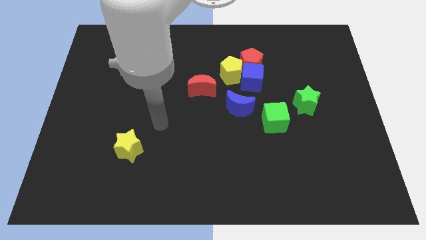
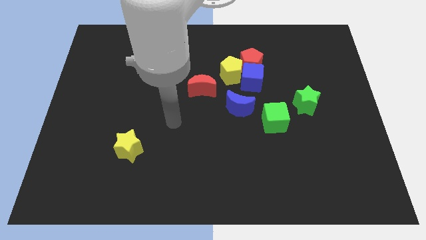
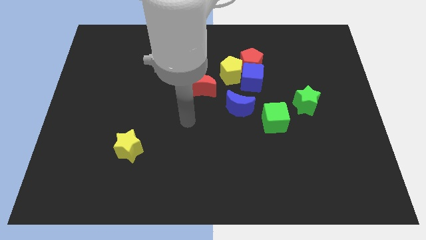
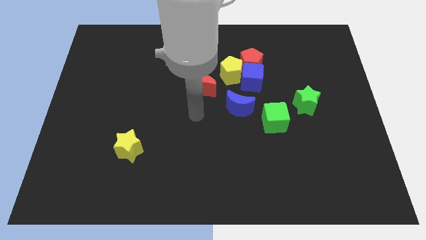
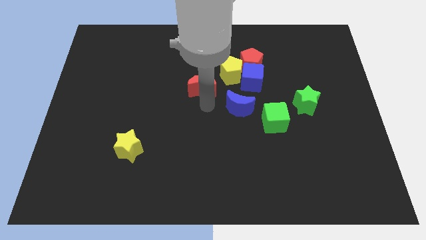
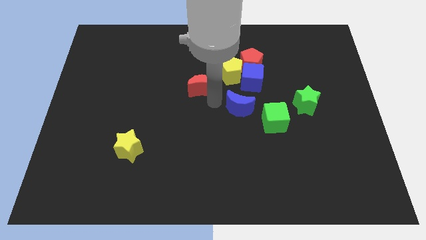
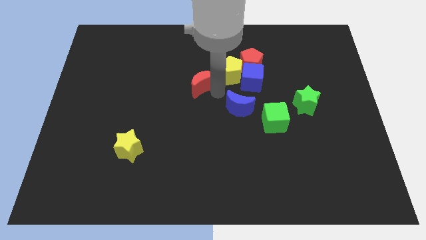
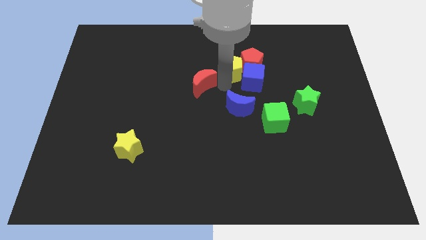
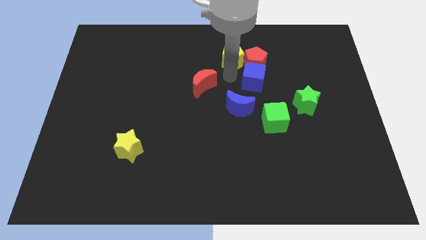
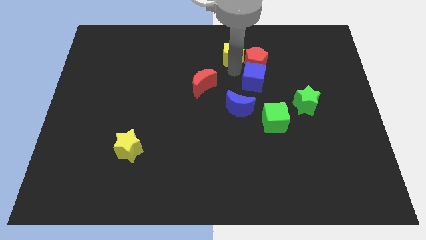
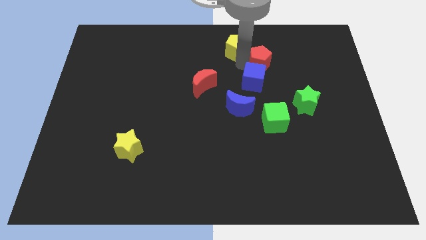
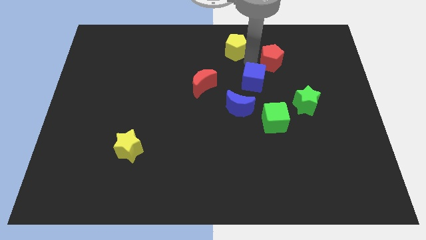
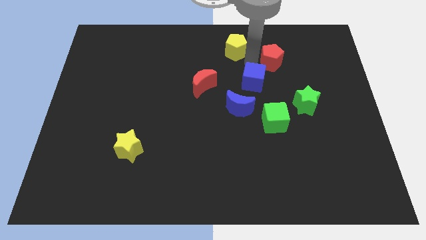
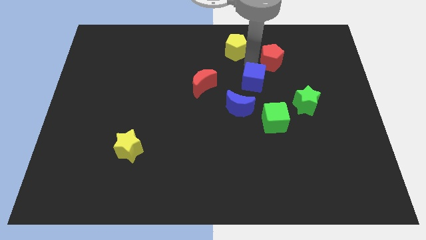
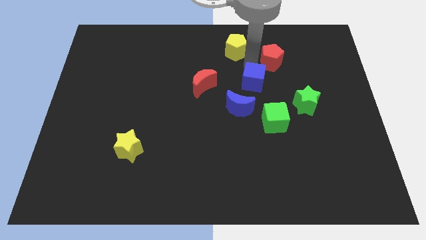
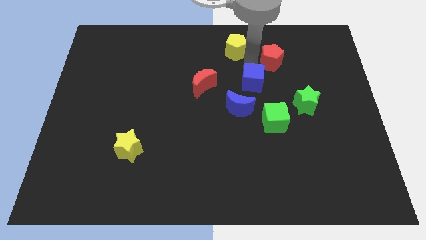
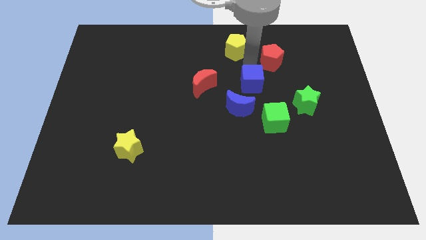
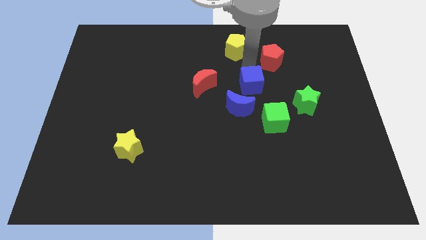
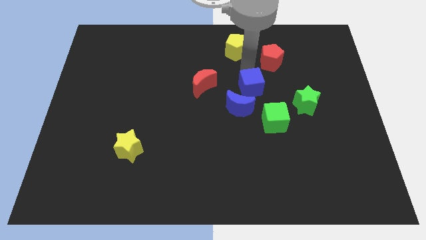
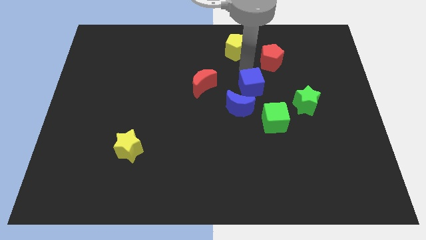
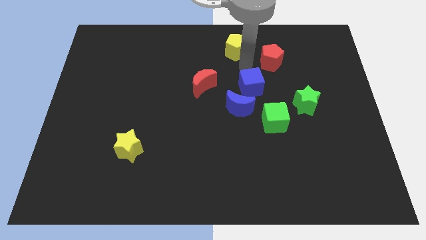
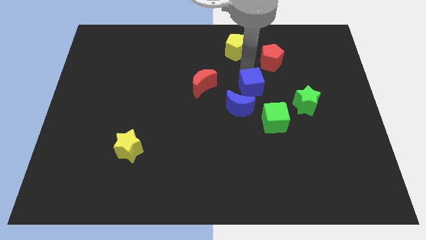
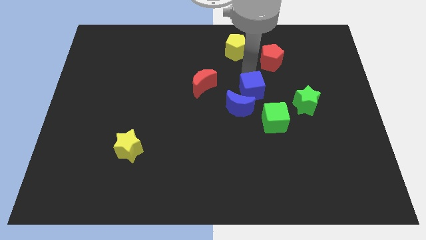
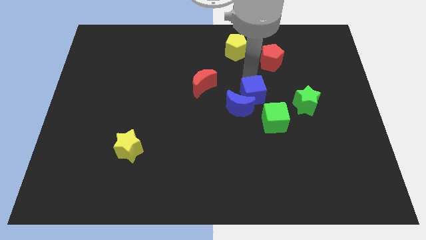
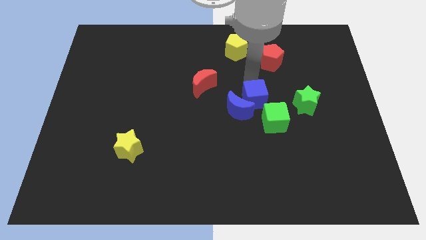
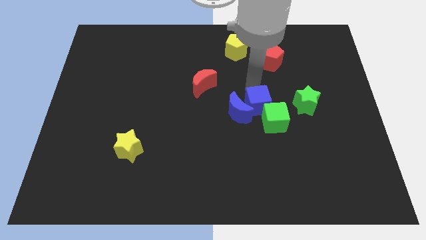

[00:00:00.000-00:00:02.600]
push the blue cube somewhat down

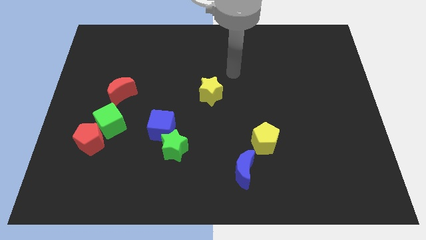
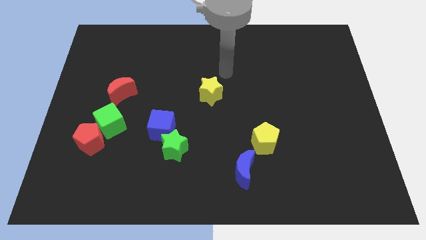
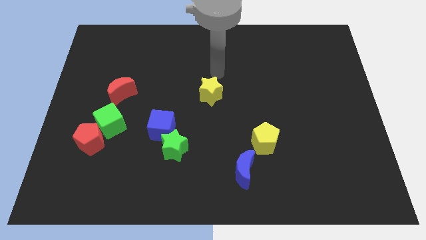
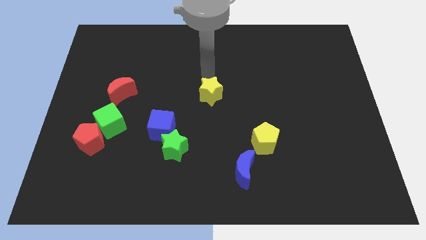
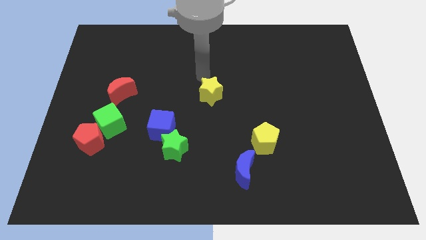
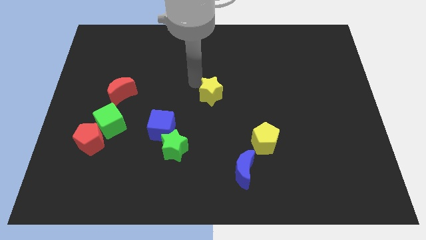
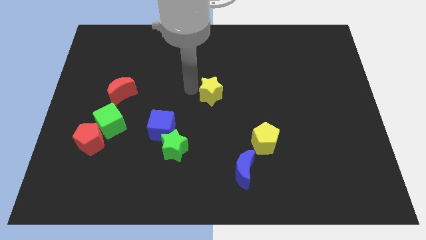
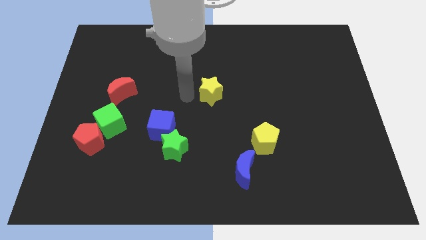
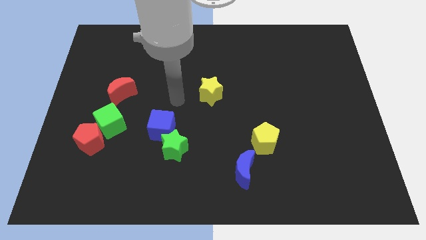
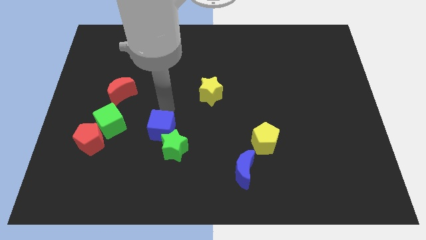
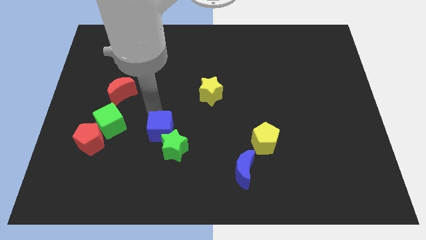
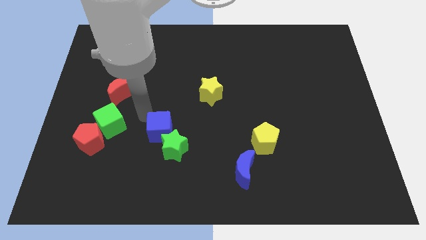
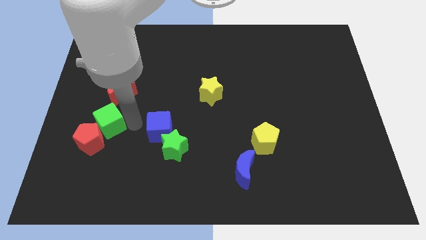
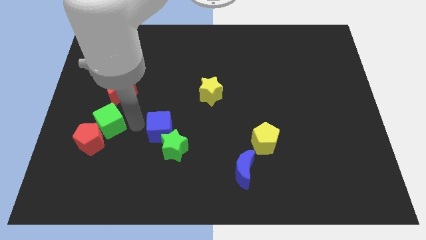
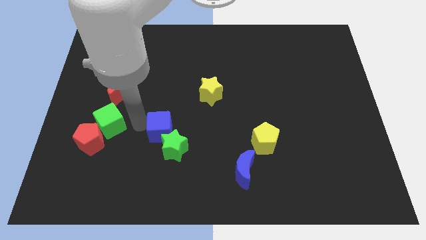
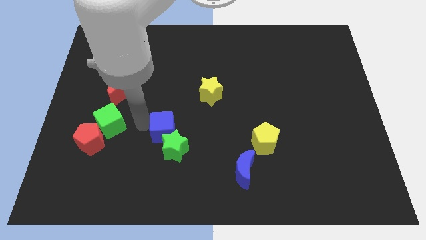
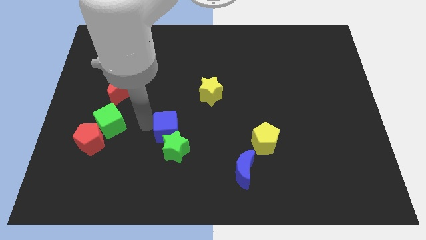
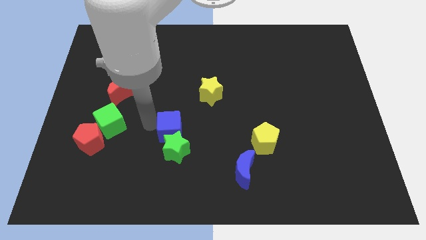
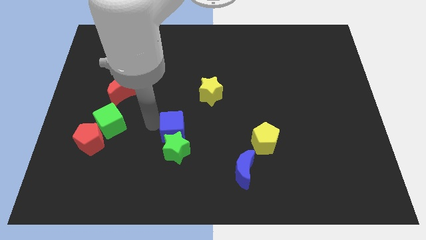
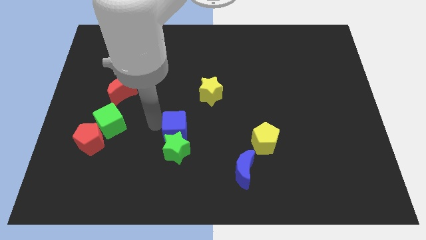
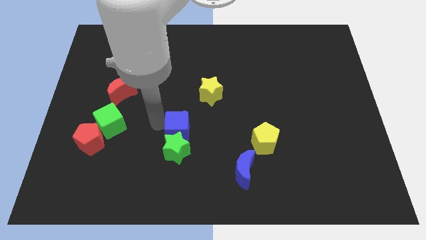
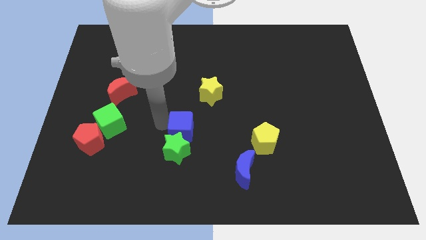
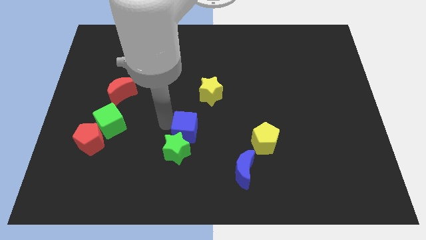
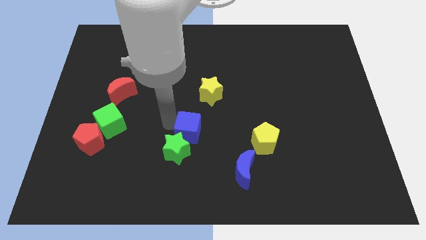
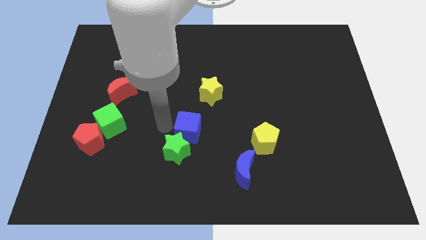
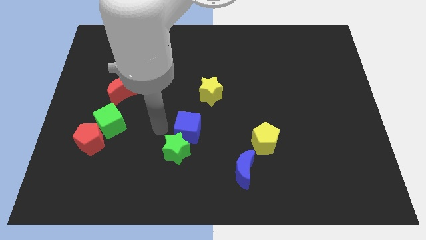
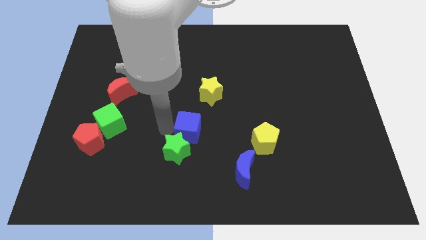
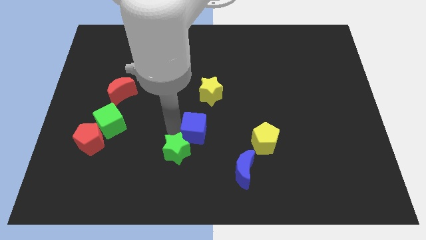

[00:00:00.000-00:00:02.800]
push the blue cube a little to the right

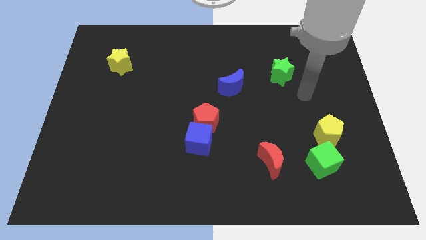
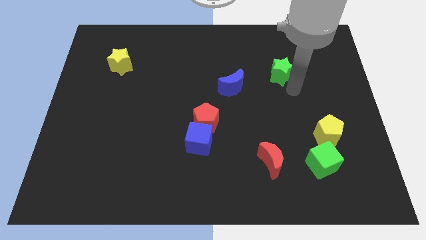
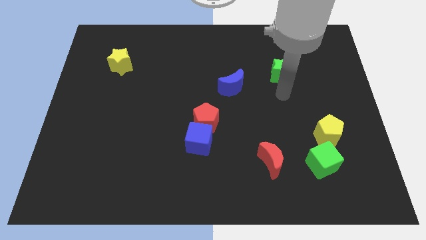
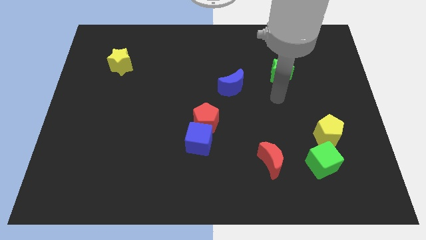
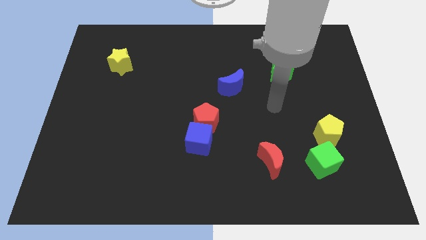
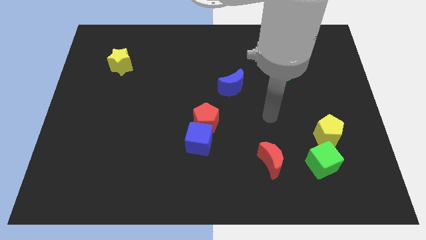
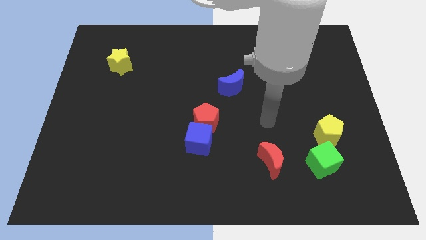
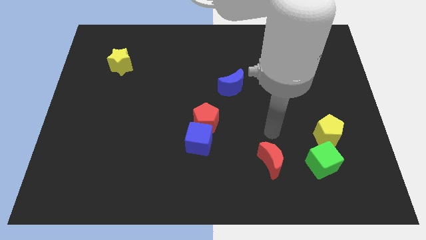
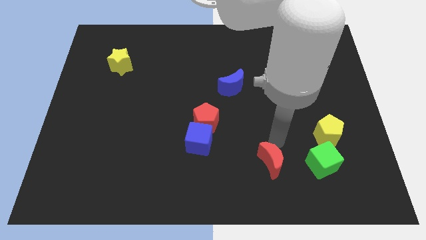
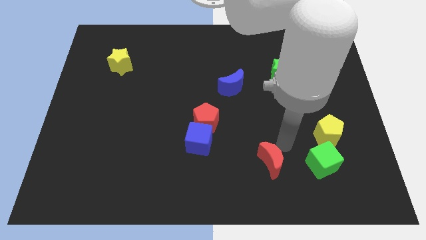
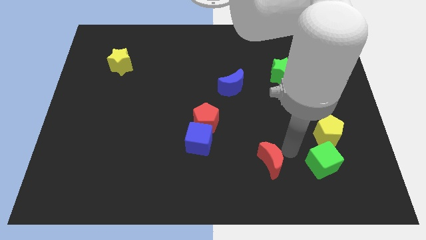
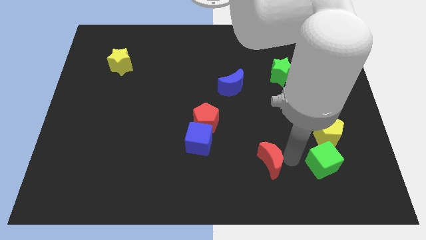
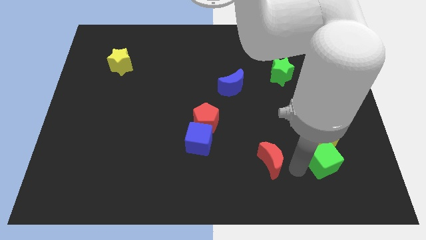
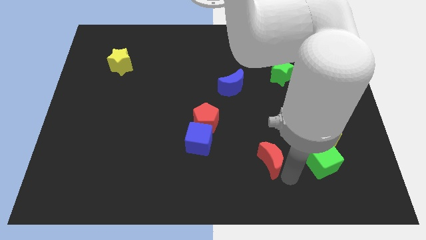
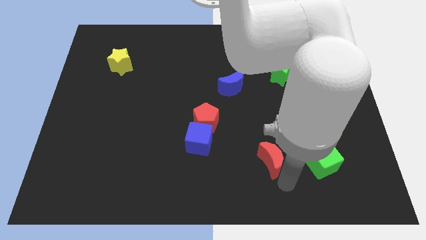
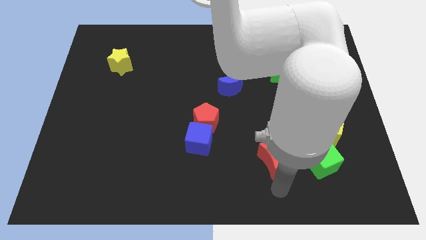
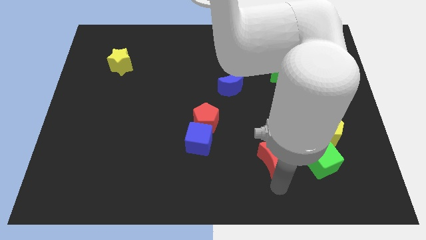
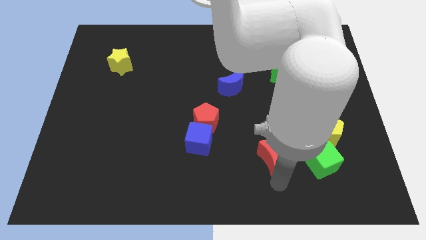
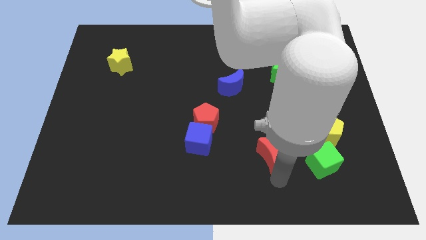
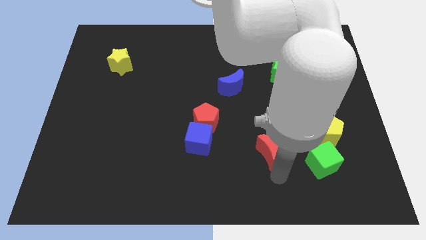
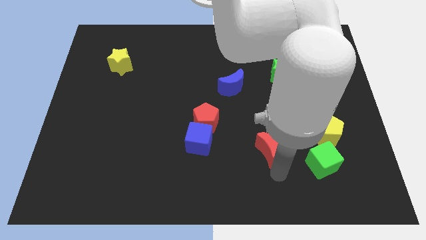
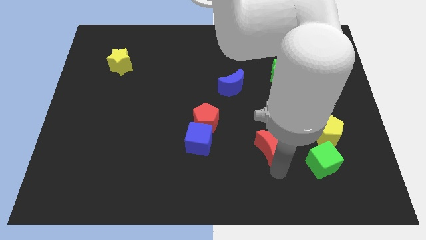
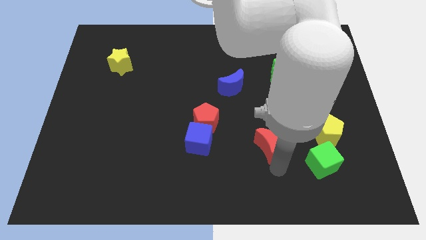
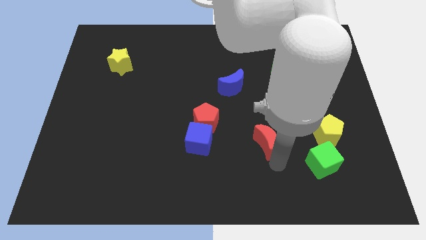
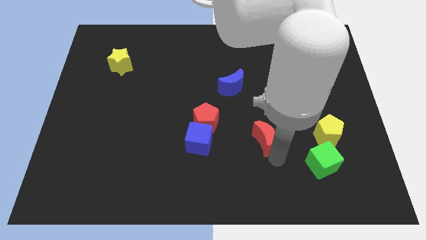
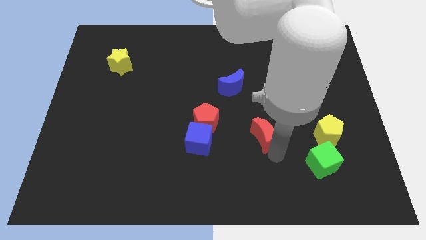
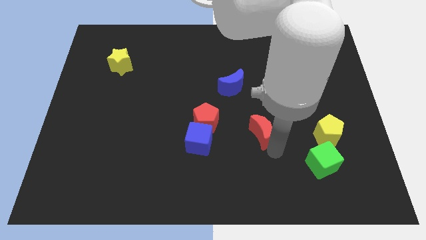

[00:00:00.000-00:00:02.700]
slightly slide the red moon upwards
